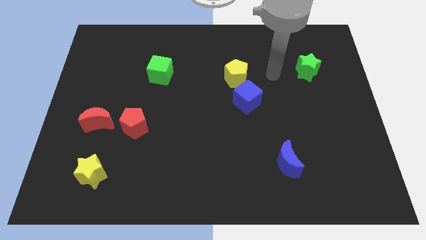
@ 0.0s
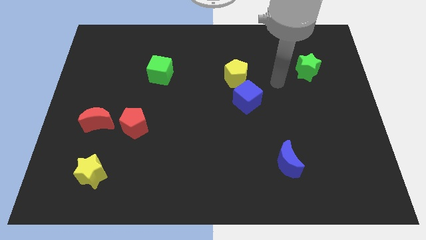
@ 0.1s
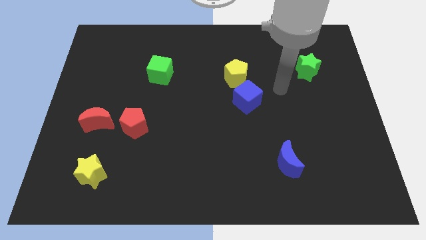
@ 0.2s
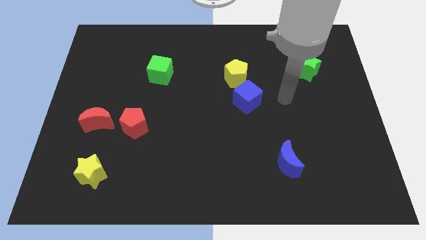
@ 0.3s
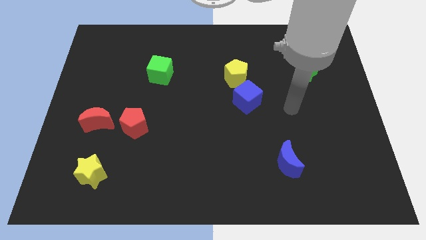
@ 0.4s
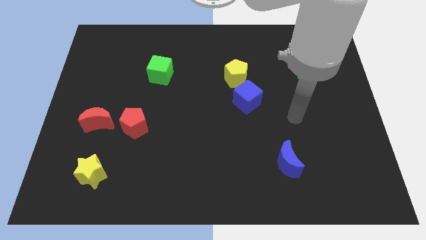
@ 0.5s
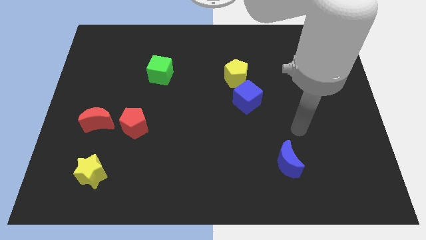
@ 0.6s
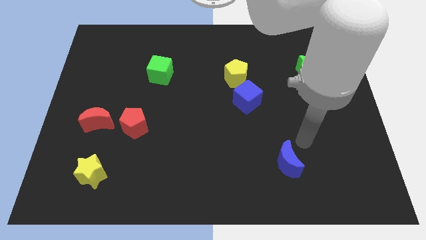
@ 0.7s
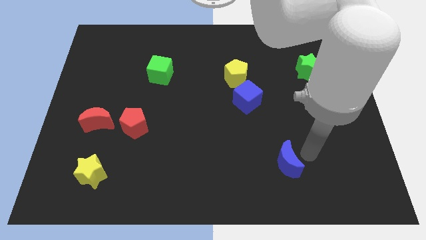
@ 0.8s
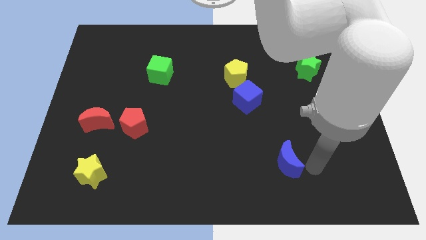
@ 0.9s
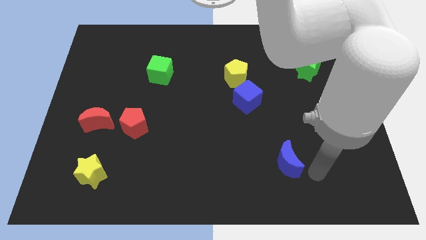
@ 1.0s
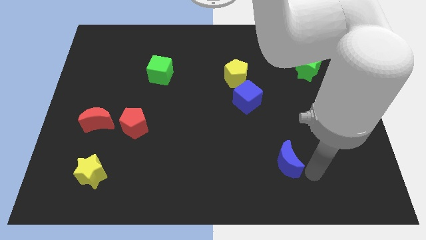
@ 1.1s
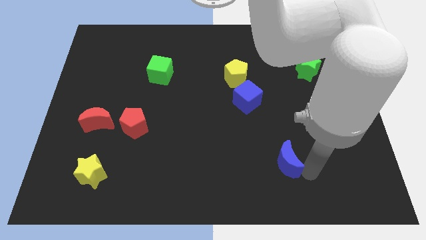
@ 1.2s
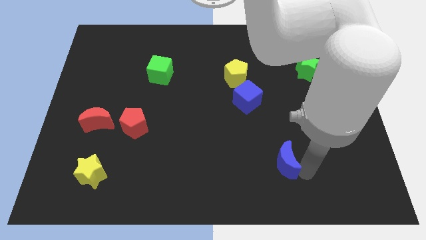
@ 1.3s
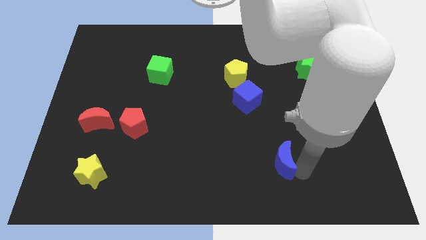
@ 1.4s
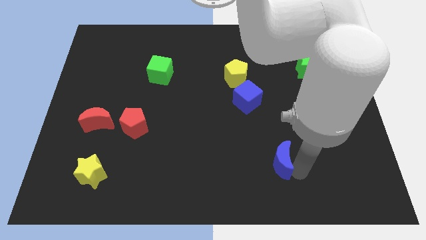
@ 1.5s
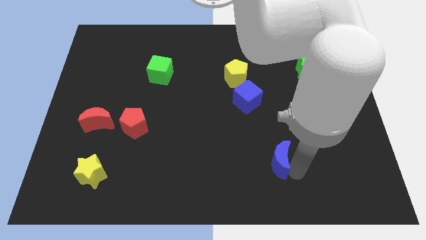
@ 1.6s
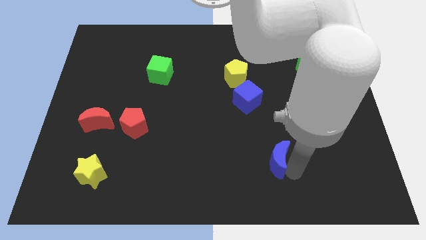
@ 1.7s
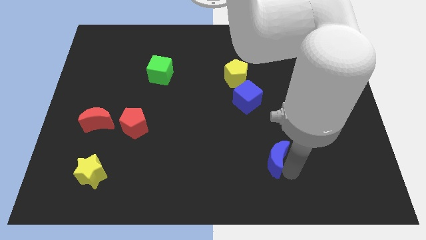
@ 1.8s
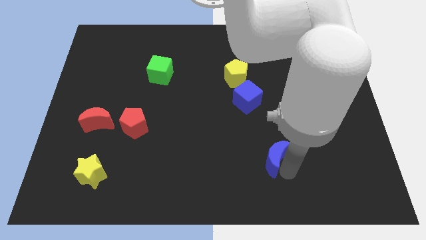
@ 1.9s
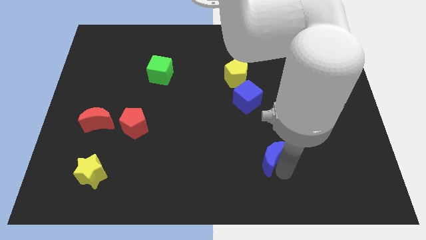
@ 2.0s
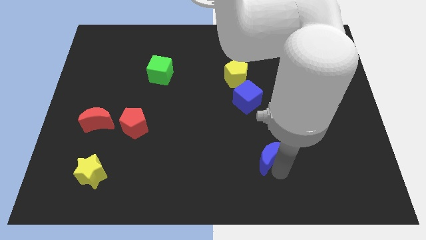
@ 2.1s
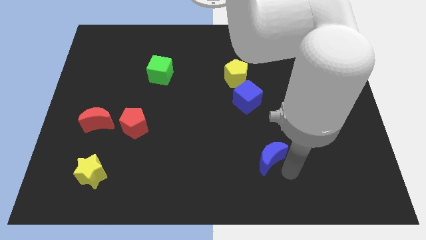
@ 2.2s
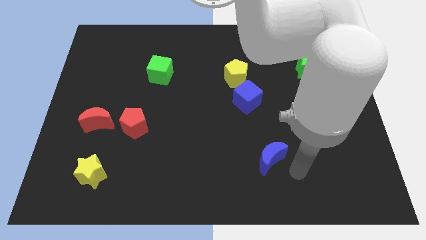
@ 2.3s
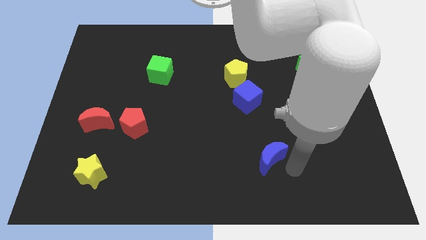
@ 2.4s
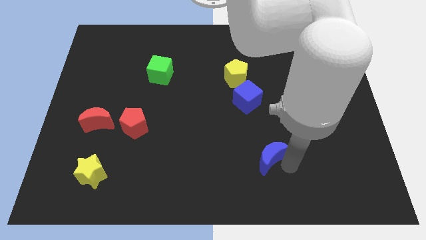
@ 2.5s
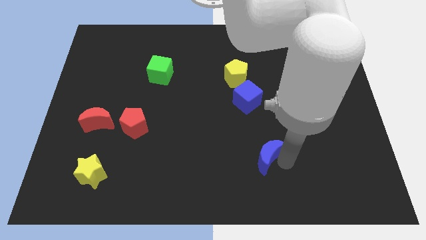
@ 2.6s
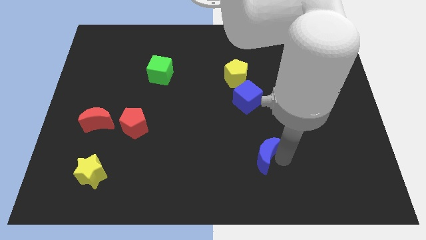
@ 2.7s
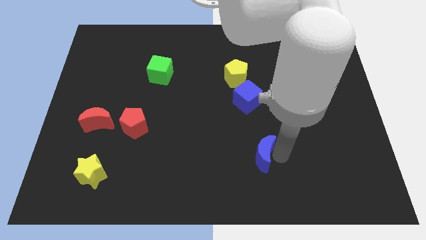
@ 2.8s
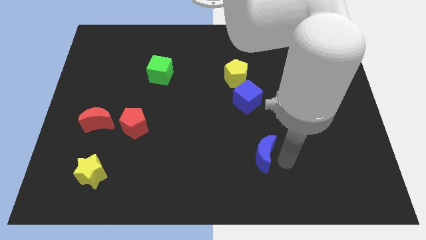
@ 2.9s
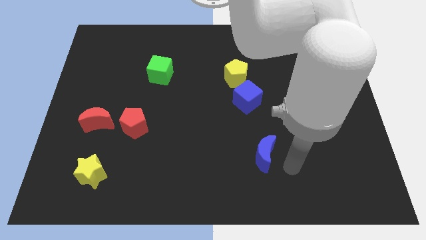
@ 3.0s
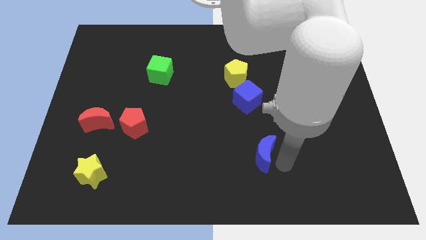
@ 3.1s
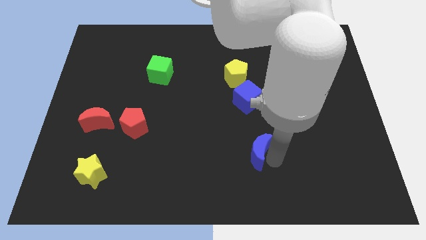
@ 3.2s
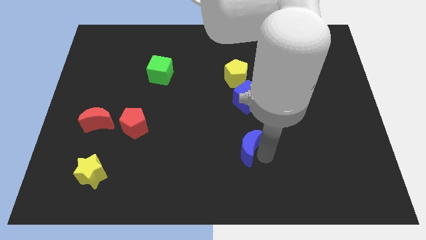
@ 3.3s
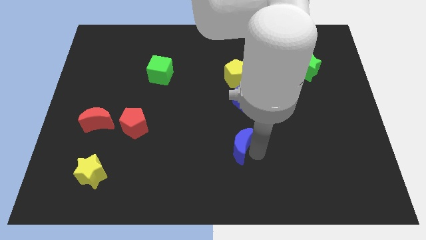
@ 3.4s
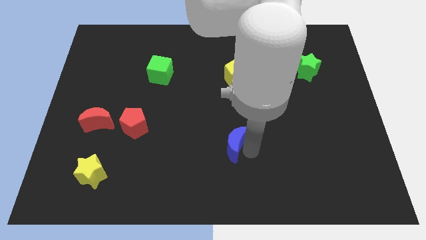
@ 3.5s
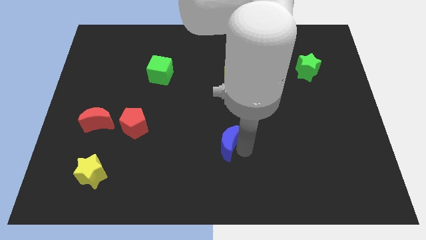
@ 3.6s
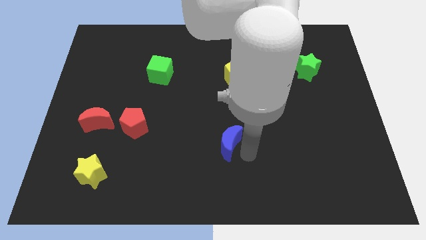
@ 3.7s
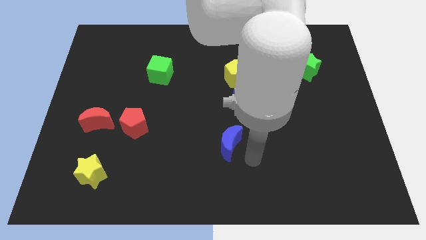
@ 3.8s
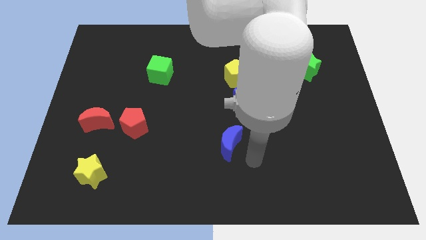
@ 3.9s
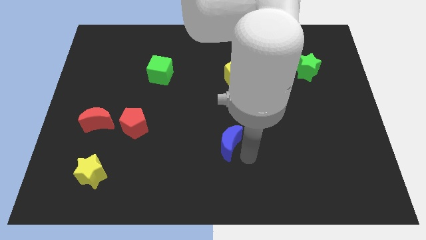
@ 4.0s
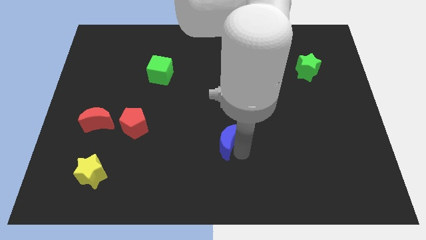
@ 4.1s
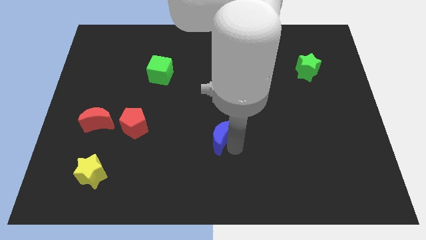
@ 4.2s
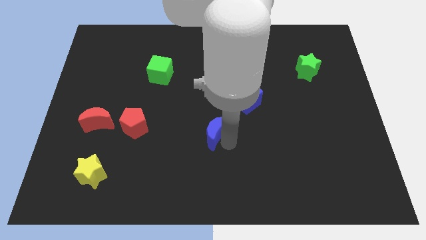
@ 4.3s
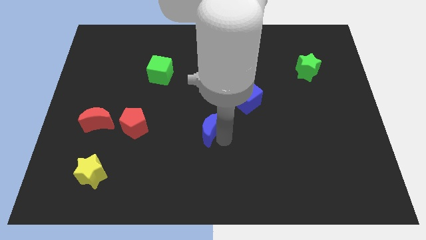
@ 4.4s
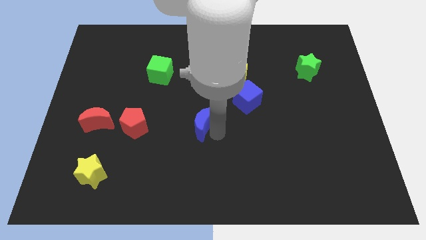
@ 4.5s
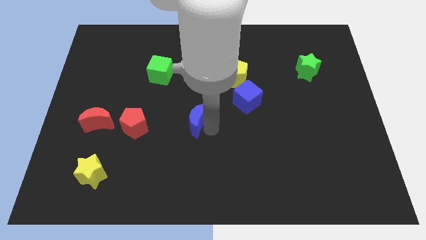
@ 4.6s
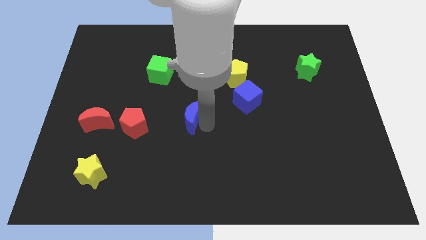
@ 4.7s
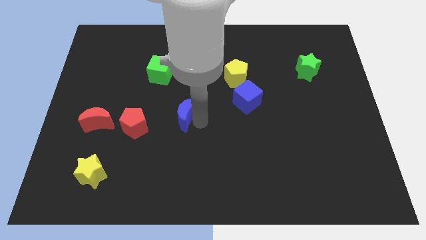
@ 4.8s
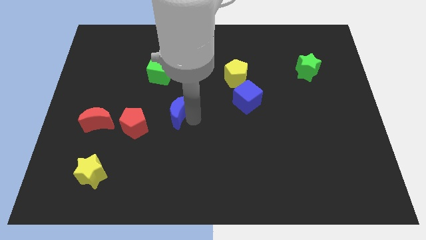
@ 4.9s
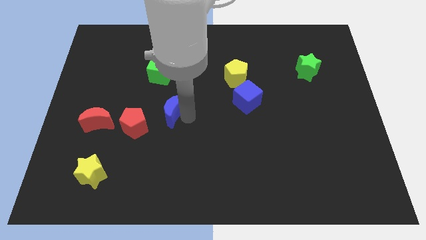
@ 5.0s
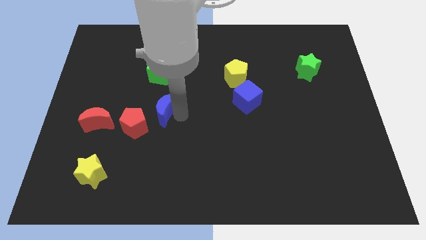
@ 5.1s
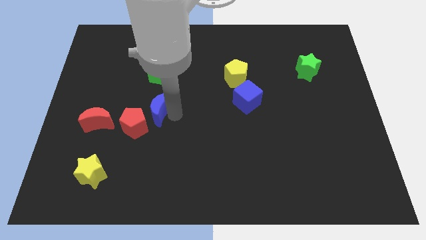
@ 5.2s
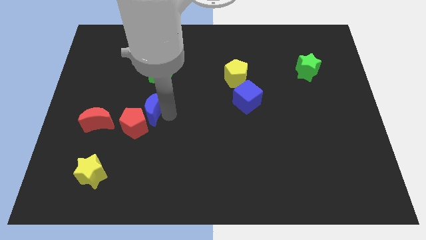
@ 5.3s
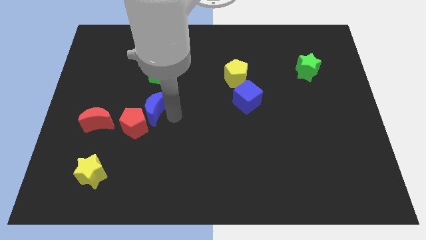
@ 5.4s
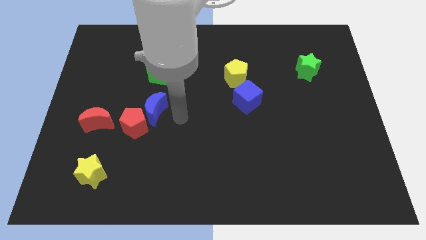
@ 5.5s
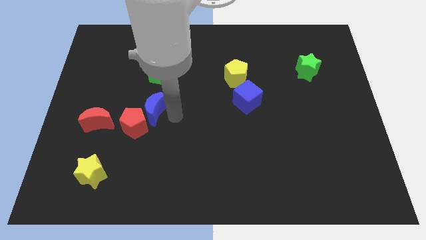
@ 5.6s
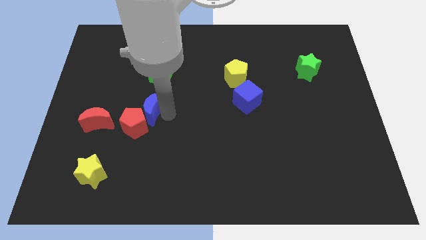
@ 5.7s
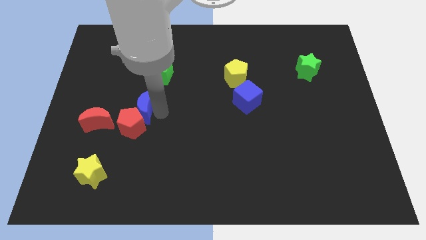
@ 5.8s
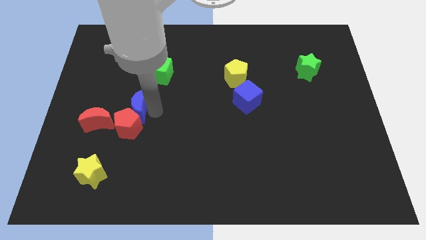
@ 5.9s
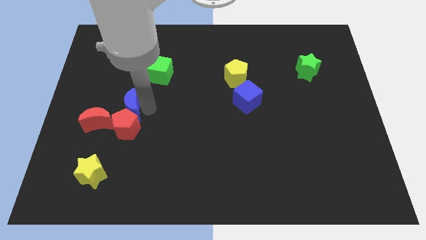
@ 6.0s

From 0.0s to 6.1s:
put the blue moon to the top left of the red pentagon
